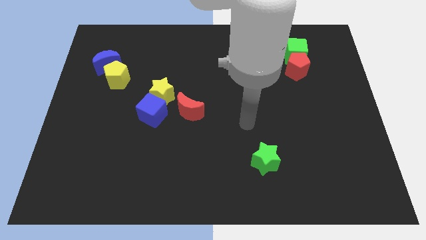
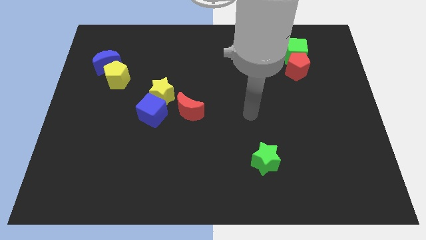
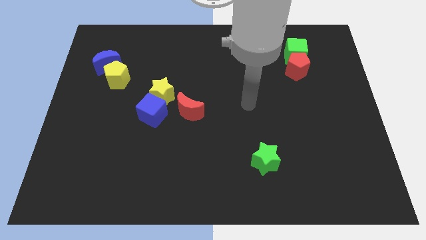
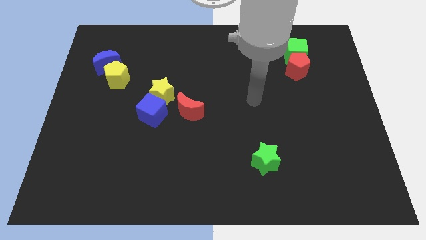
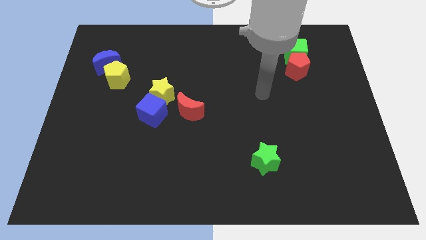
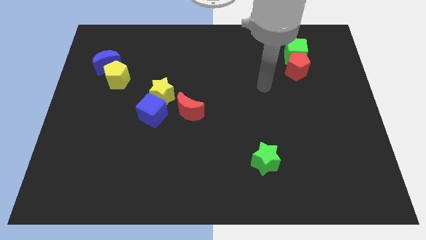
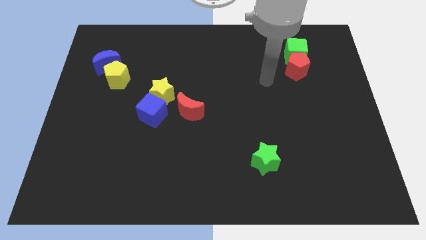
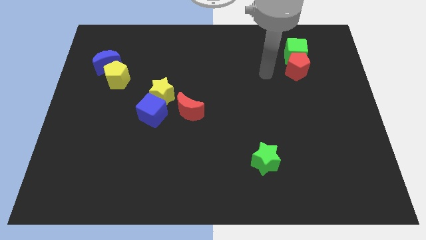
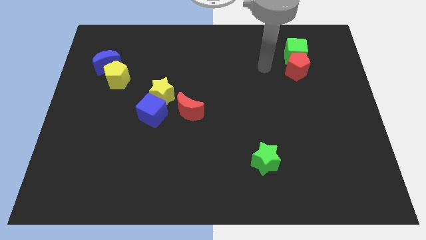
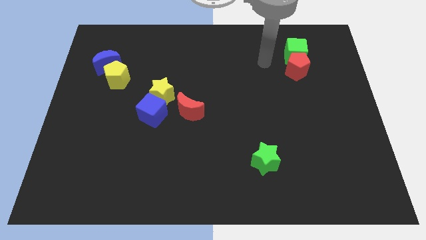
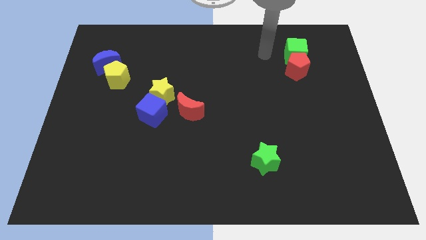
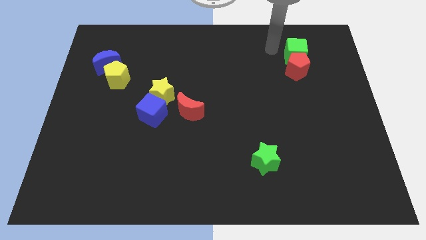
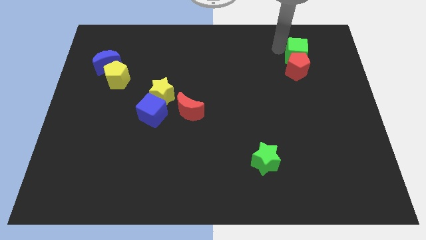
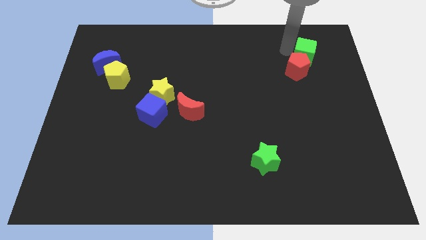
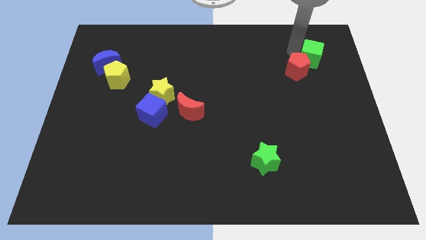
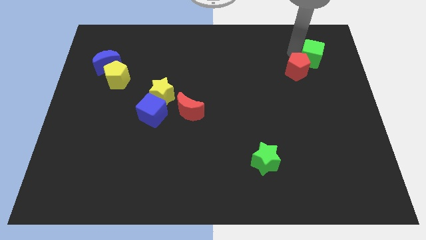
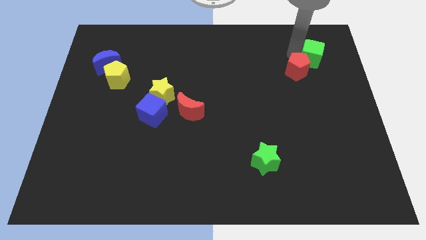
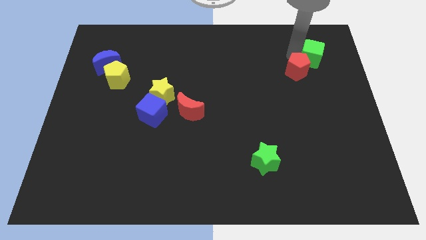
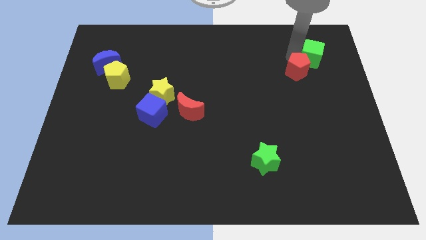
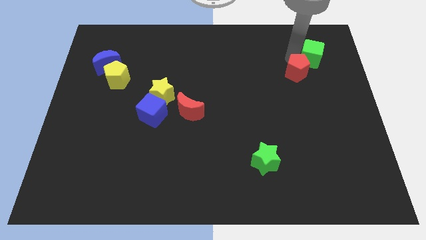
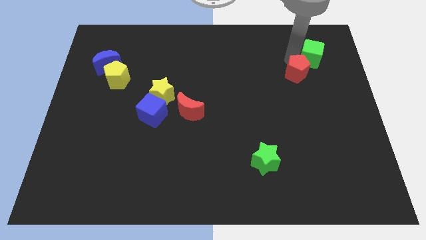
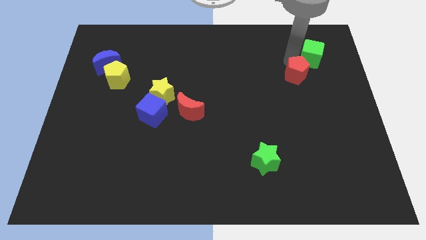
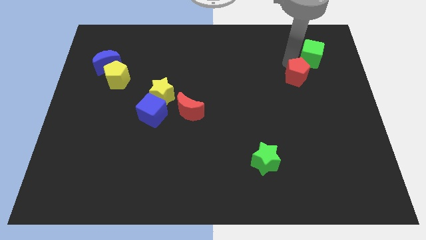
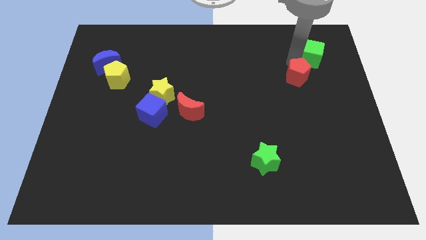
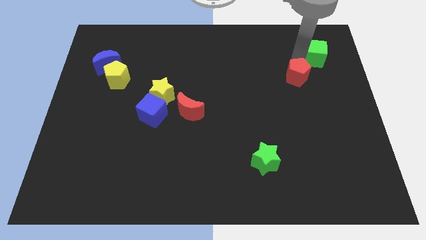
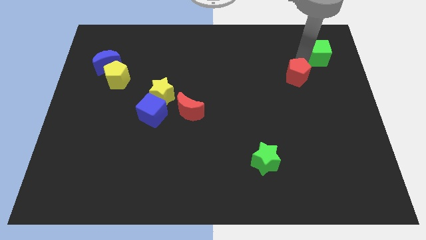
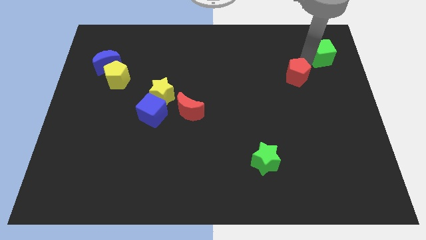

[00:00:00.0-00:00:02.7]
separate the red pentagon from the green cube

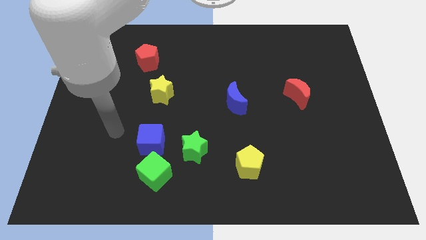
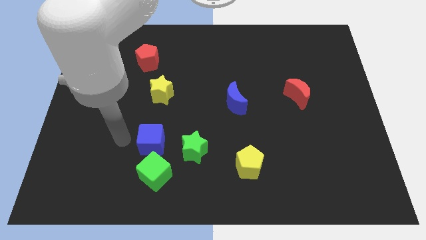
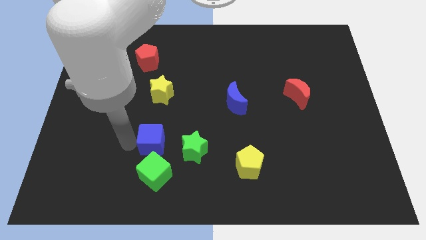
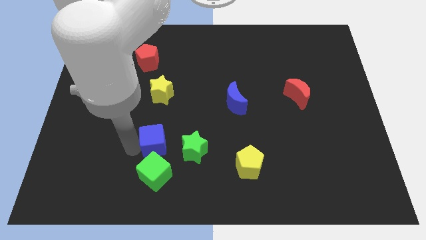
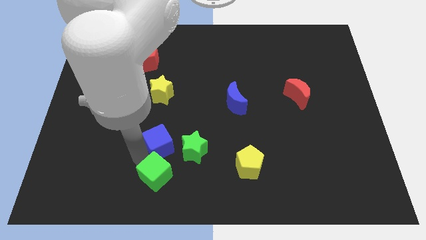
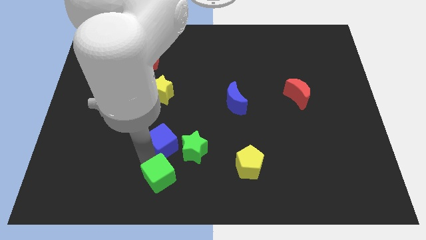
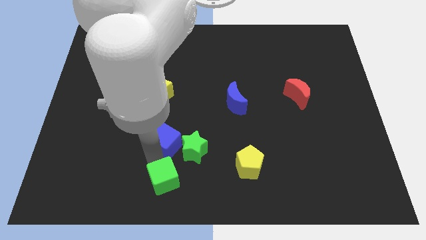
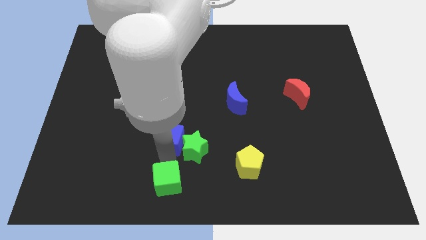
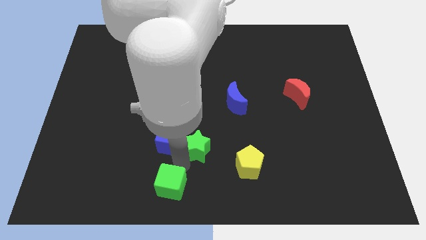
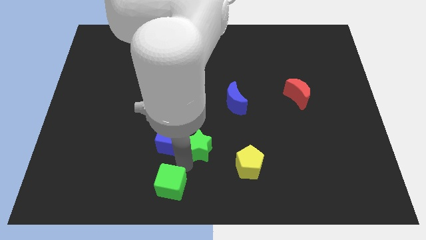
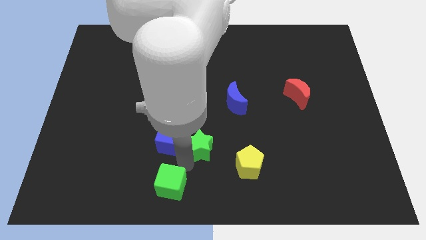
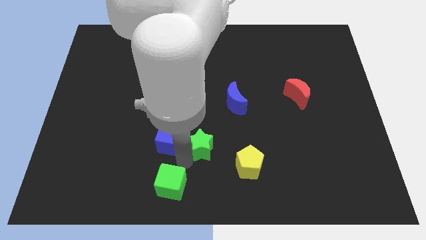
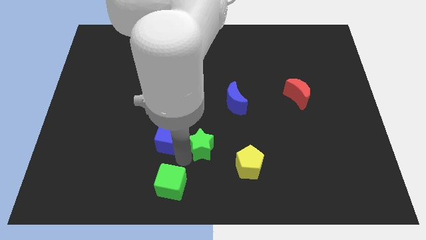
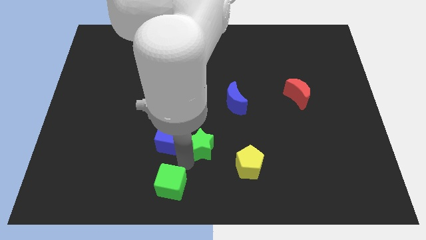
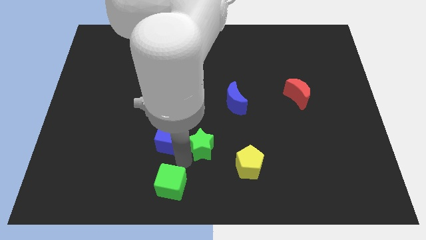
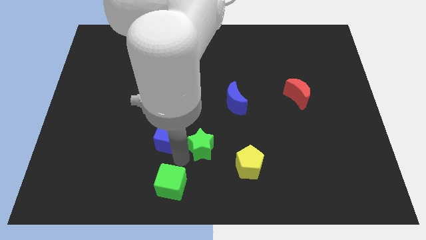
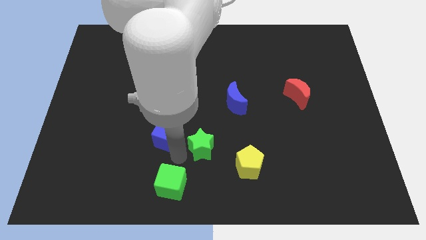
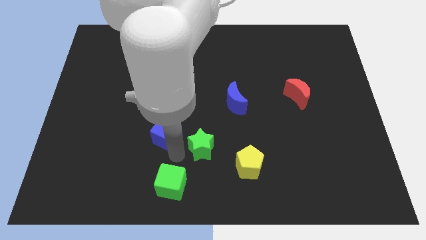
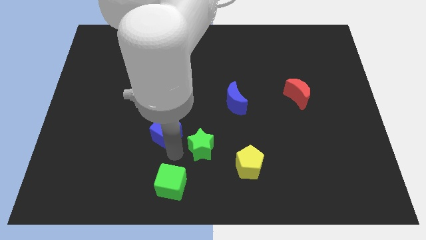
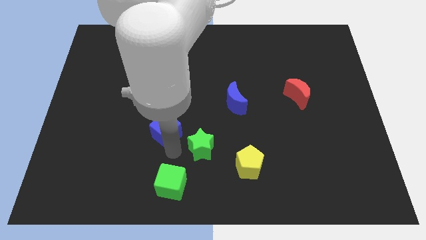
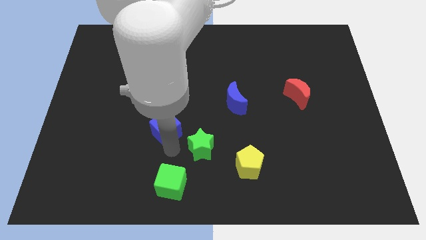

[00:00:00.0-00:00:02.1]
move the blue cube away from the green cube and green star

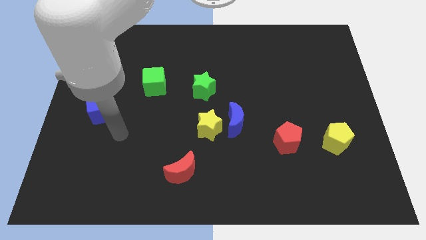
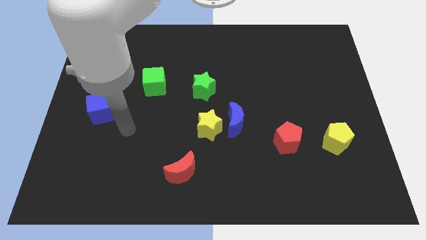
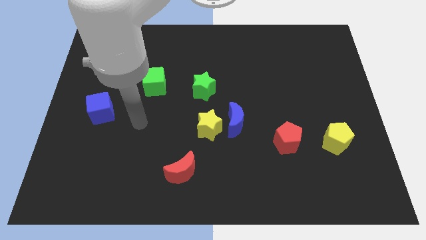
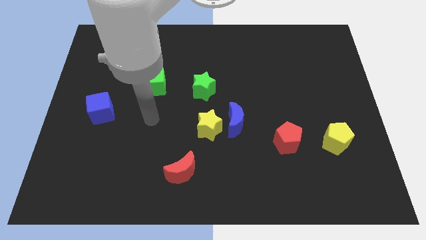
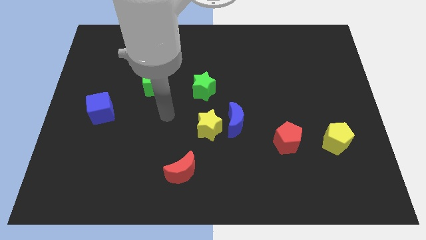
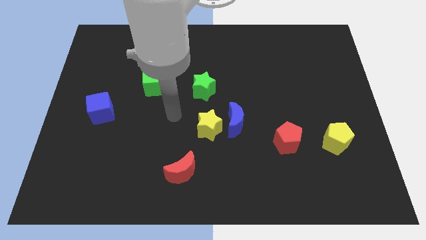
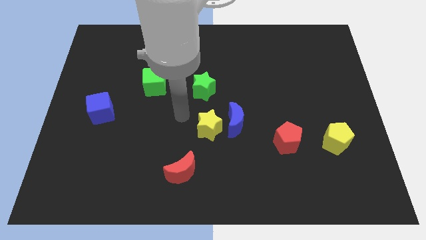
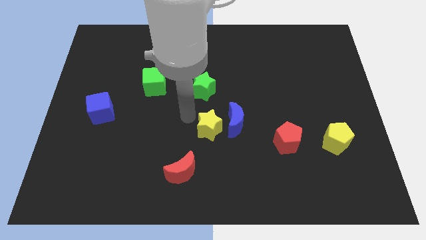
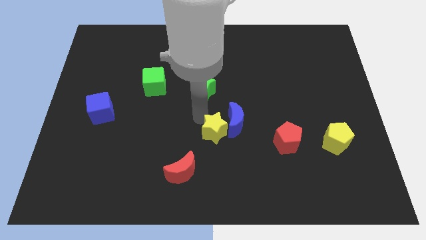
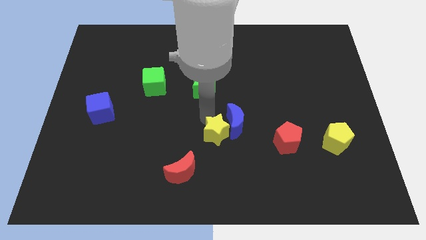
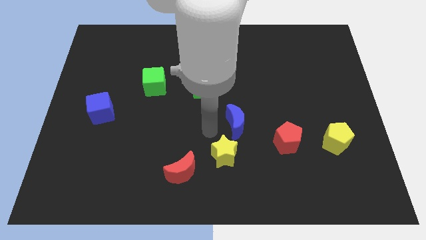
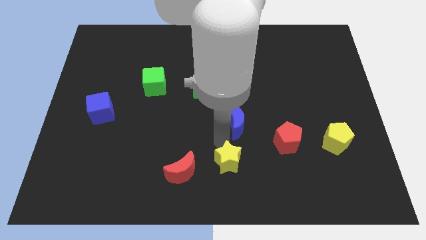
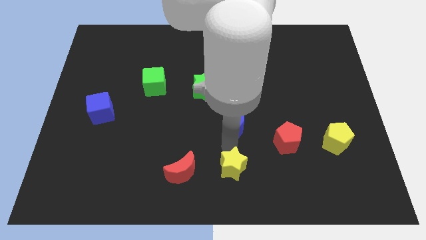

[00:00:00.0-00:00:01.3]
separate the blue moon from the yellow star

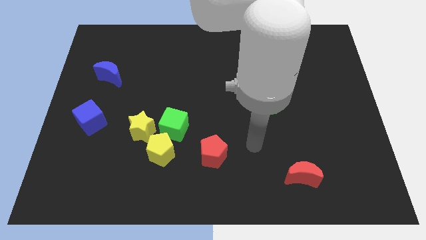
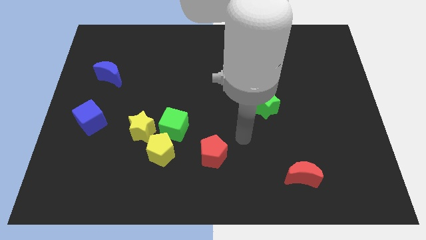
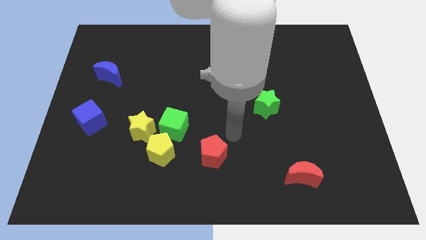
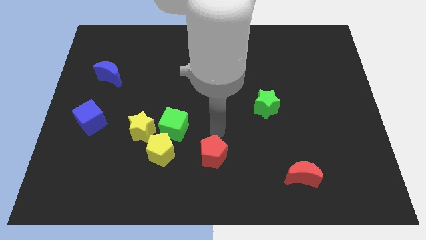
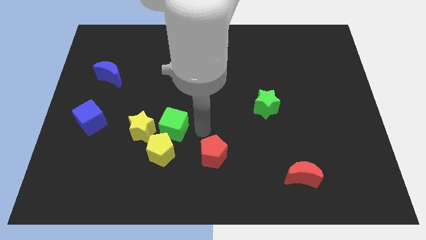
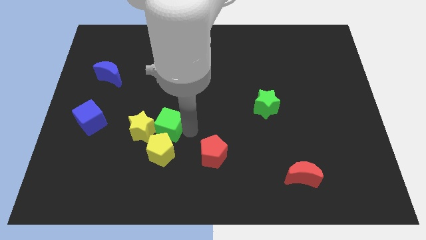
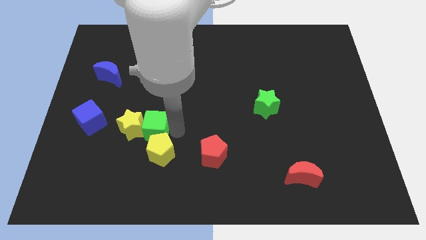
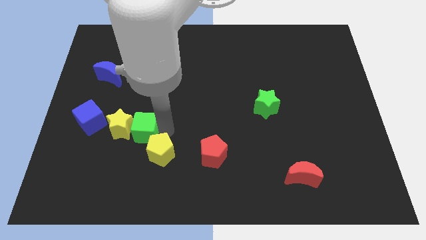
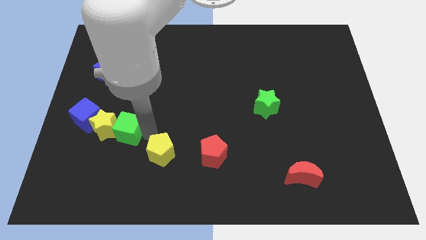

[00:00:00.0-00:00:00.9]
pull the yellow pentagon apart from the green cube and yellow star

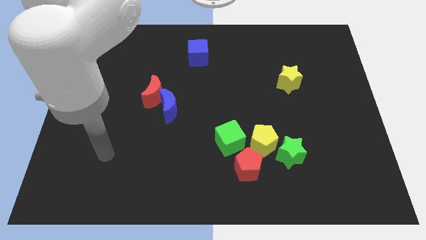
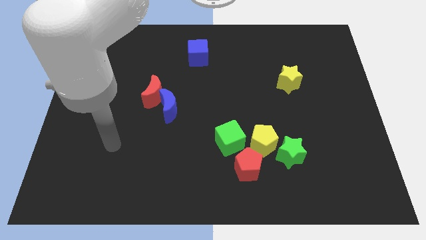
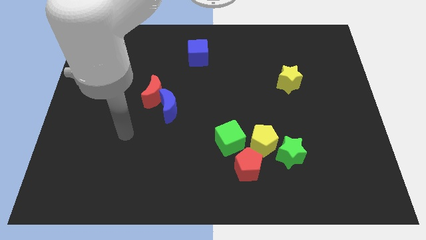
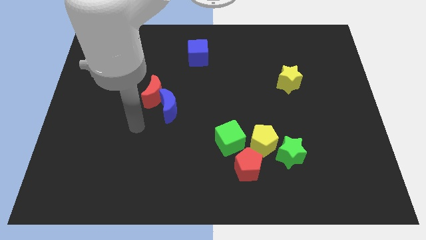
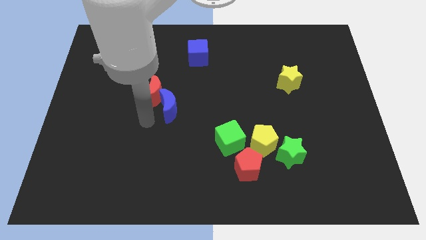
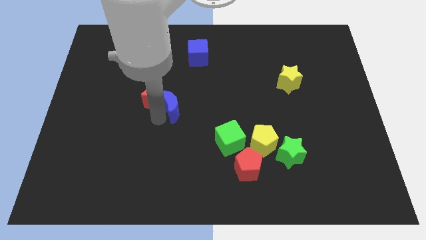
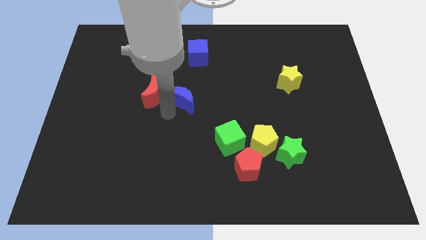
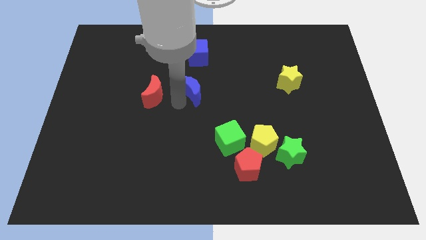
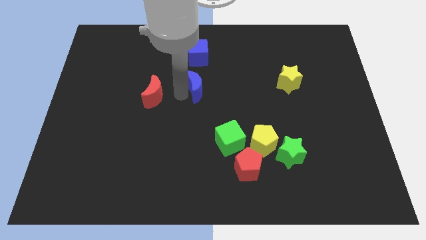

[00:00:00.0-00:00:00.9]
separate the red moon from the blue moon

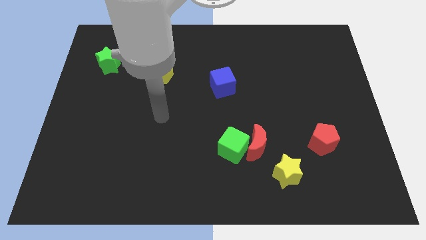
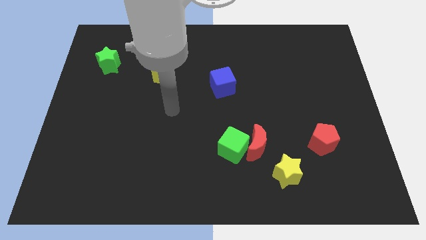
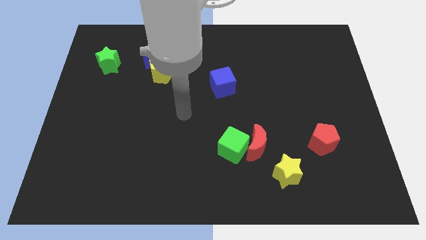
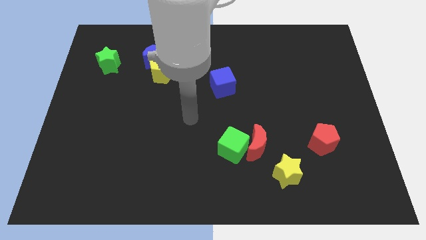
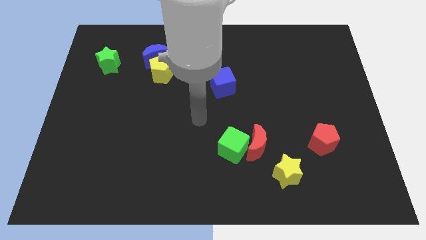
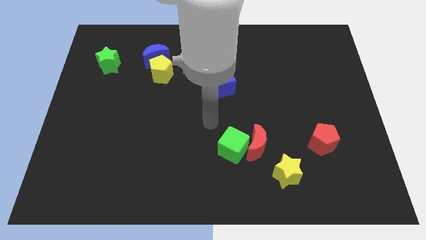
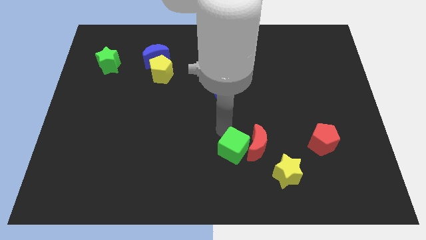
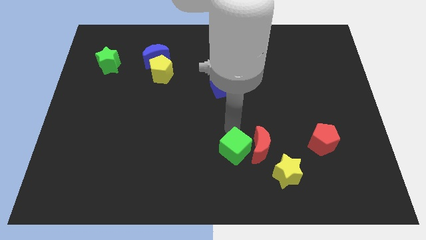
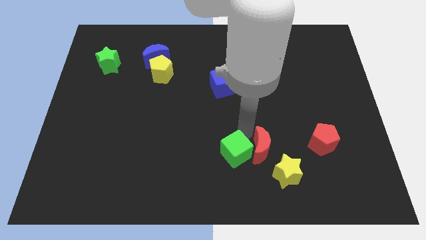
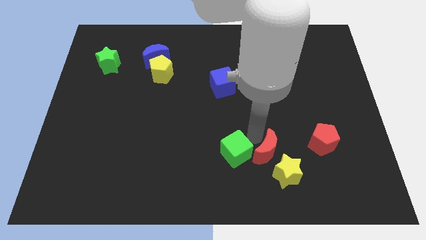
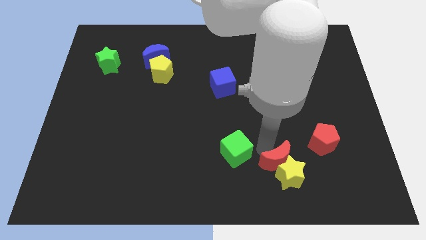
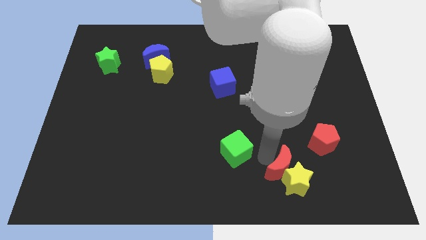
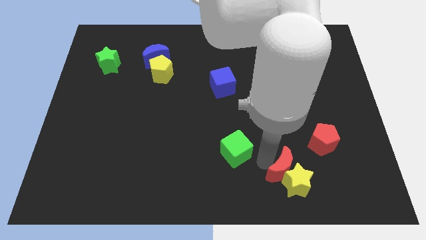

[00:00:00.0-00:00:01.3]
separate the green cube from the red moon

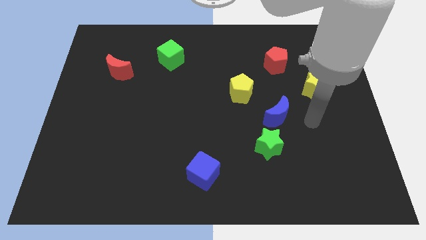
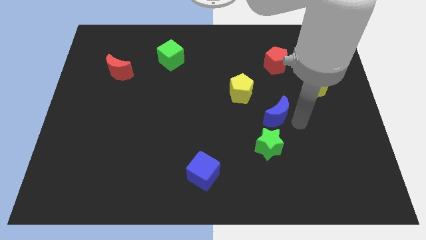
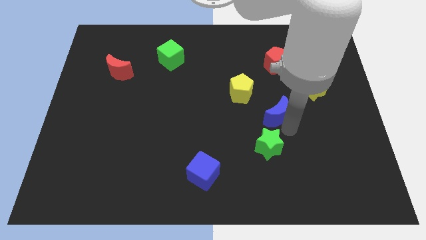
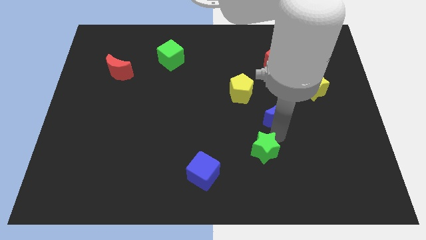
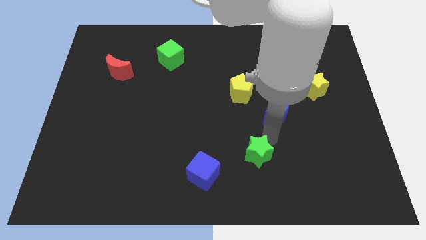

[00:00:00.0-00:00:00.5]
separate the blue moon from the green star
